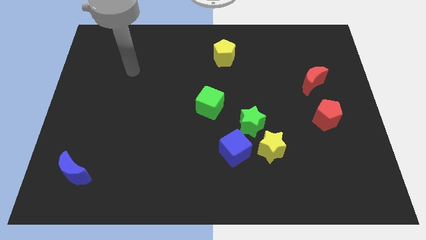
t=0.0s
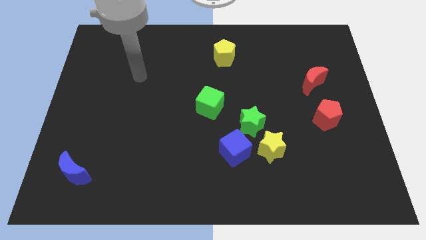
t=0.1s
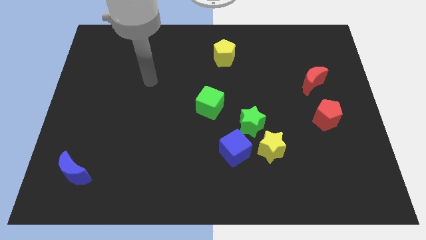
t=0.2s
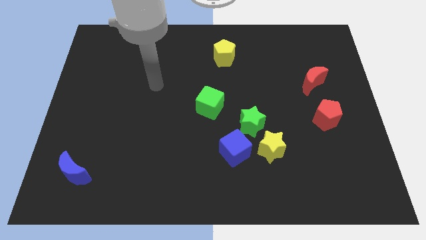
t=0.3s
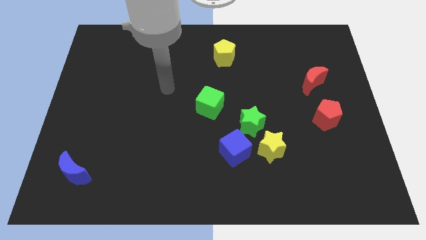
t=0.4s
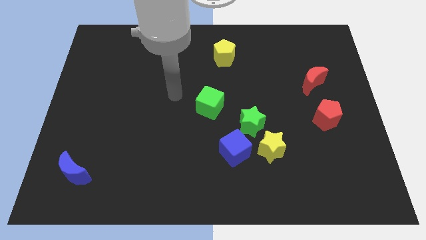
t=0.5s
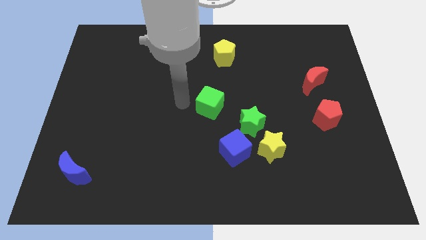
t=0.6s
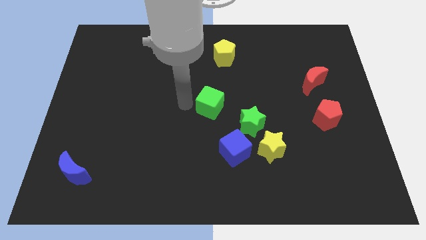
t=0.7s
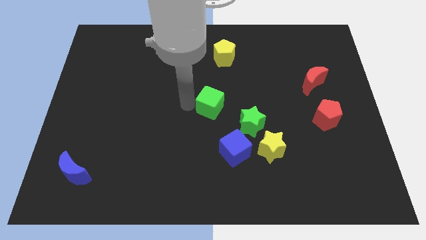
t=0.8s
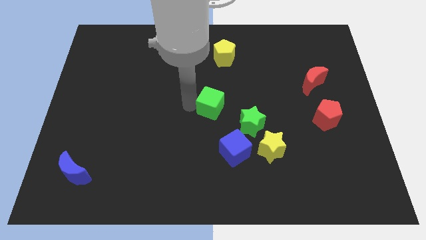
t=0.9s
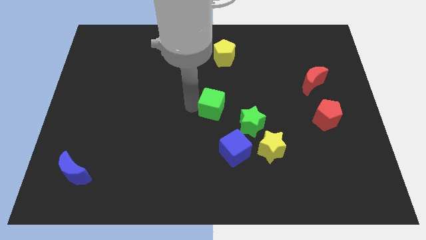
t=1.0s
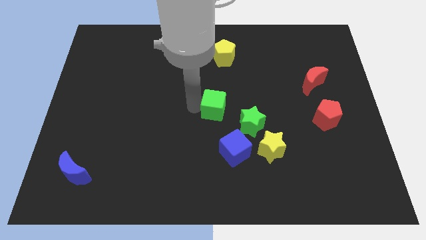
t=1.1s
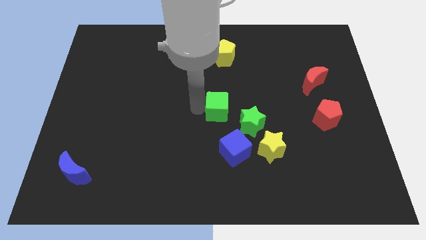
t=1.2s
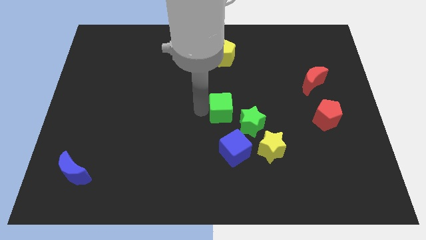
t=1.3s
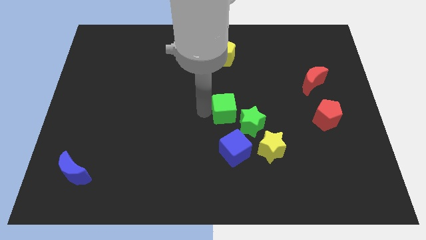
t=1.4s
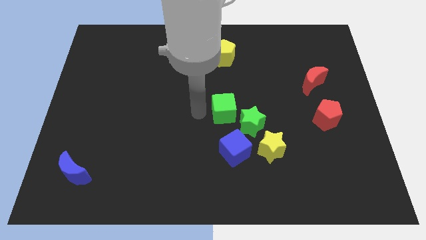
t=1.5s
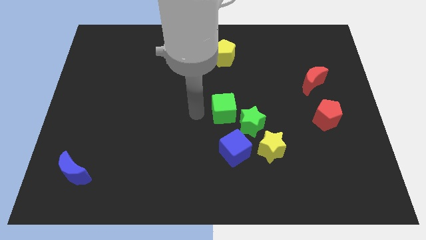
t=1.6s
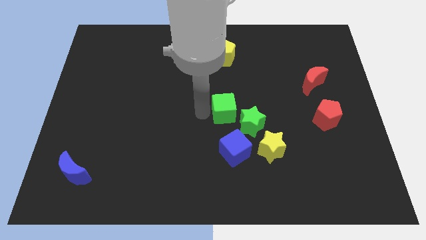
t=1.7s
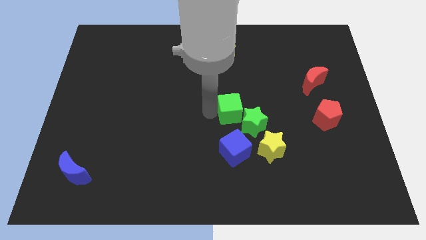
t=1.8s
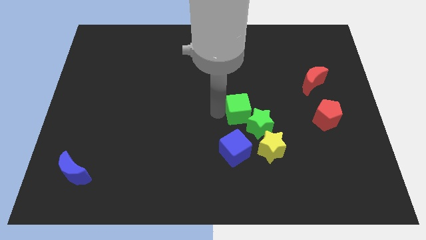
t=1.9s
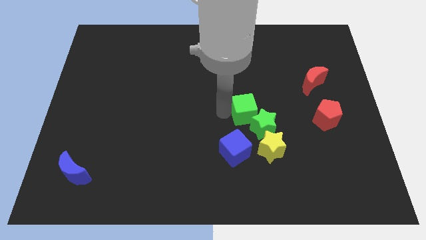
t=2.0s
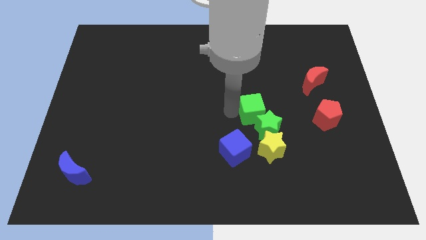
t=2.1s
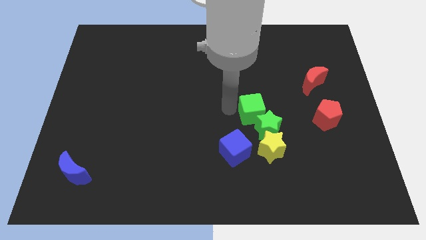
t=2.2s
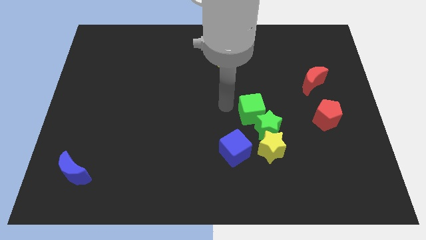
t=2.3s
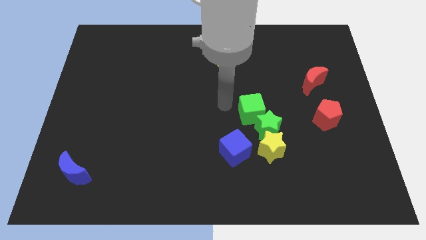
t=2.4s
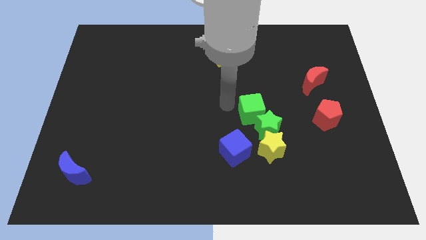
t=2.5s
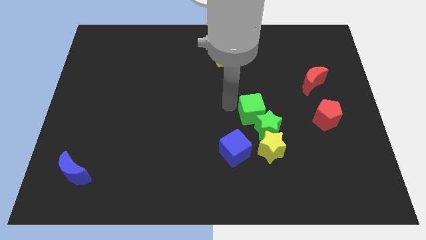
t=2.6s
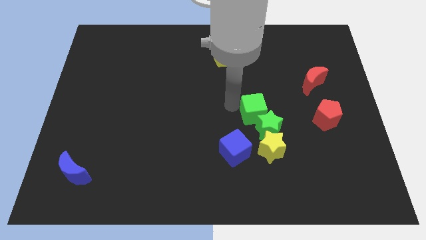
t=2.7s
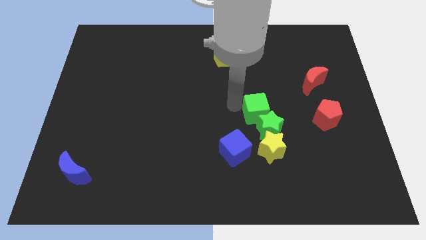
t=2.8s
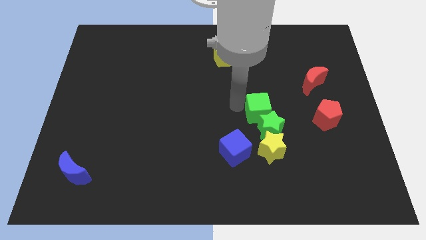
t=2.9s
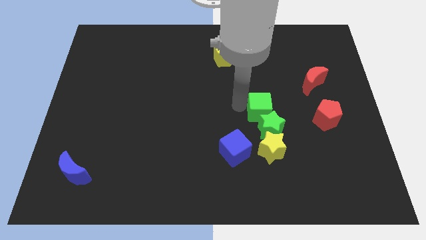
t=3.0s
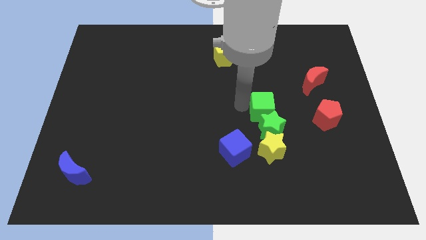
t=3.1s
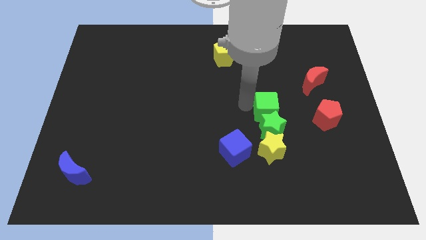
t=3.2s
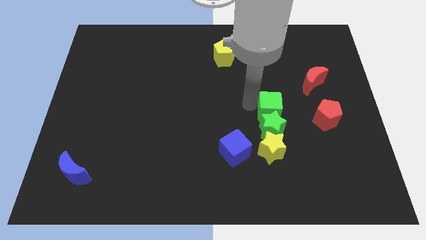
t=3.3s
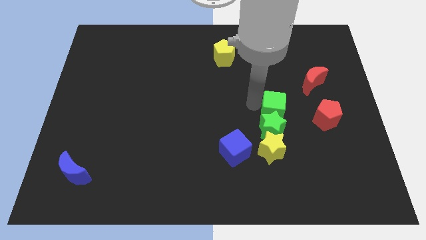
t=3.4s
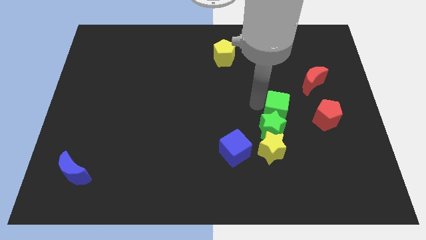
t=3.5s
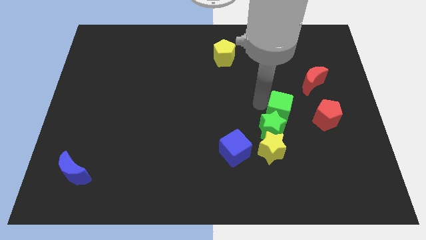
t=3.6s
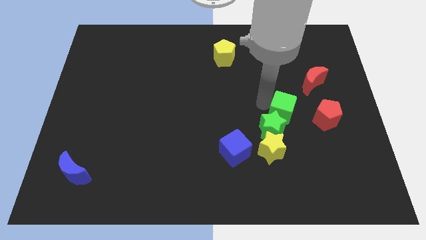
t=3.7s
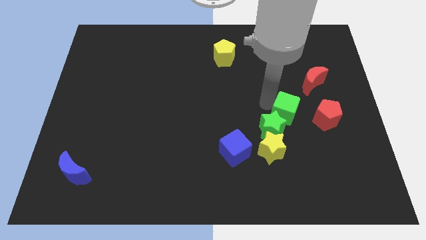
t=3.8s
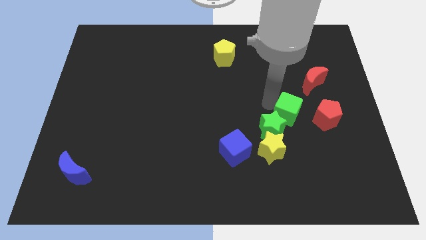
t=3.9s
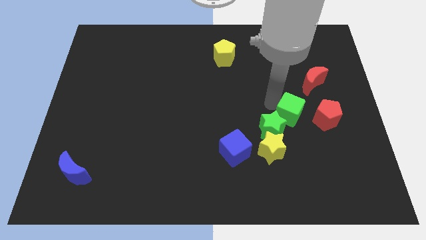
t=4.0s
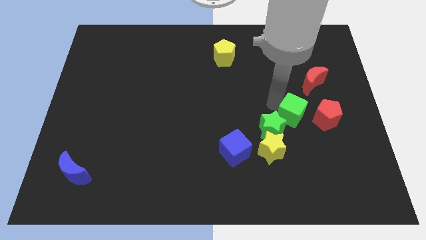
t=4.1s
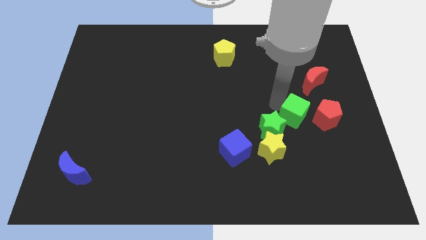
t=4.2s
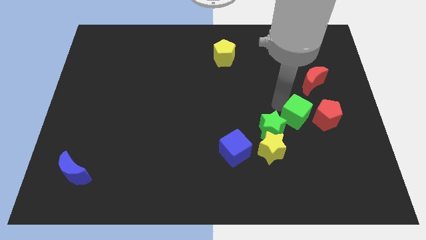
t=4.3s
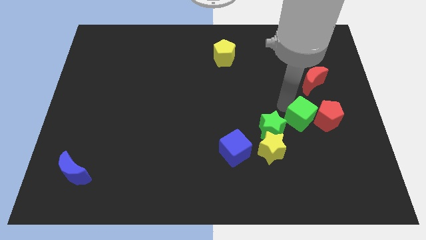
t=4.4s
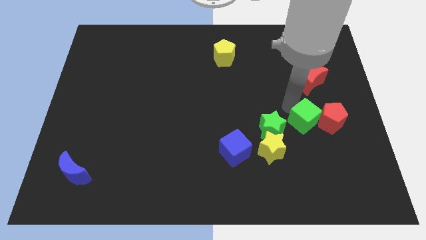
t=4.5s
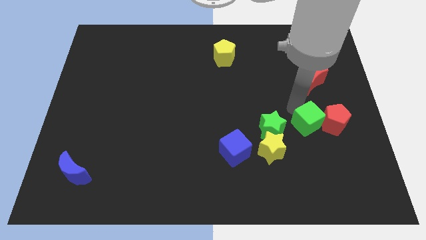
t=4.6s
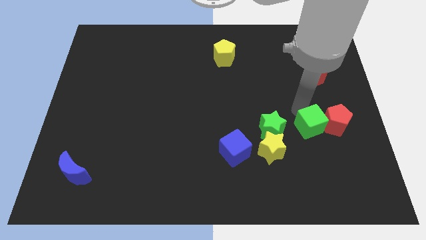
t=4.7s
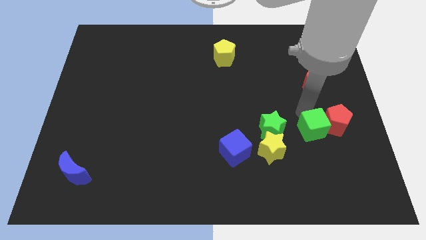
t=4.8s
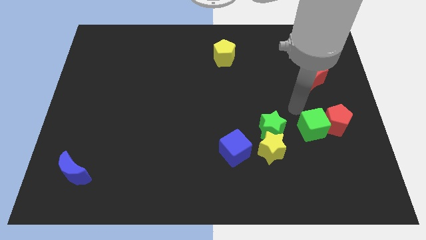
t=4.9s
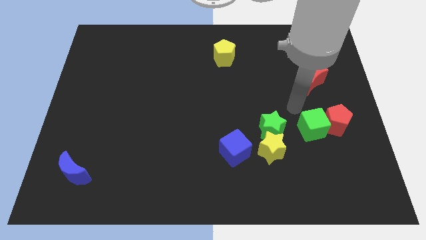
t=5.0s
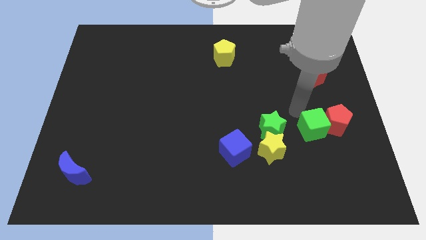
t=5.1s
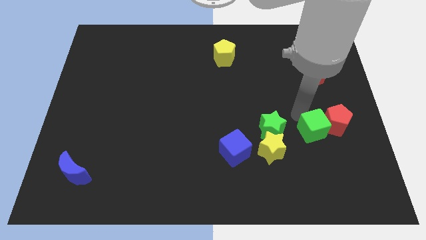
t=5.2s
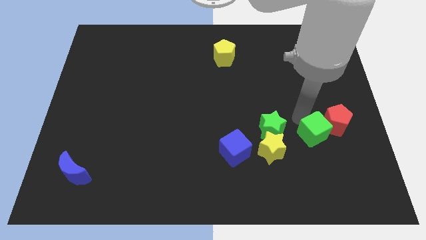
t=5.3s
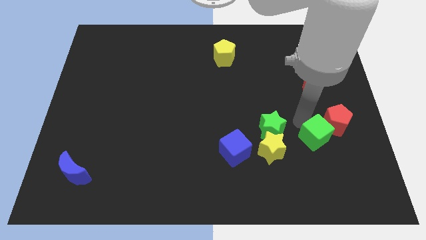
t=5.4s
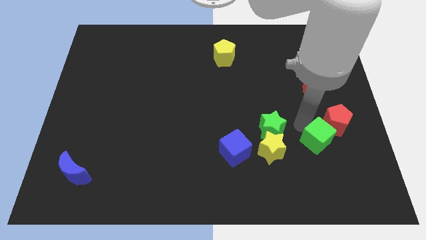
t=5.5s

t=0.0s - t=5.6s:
put the green cube below the red pentagon

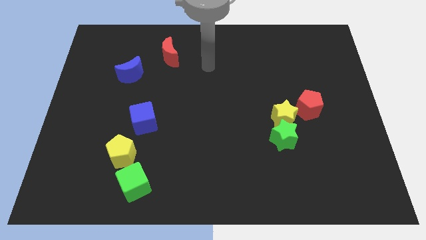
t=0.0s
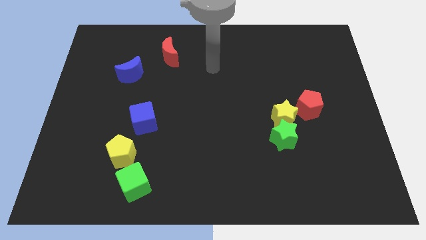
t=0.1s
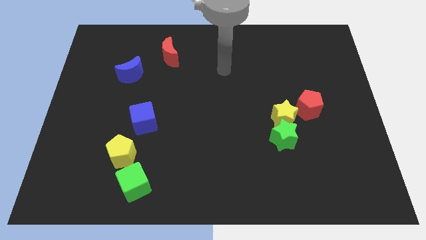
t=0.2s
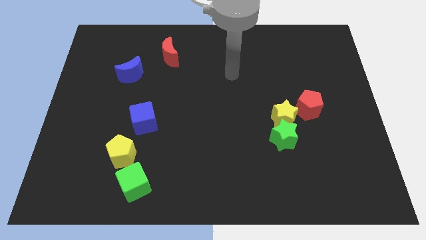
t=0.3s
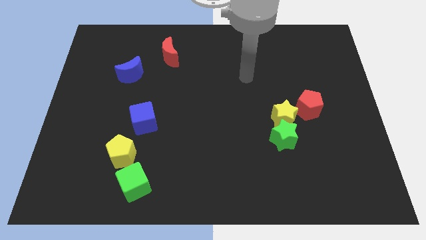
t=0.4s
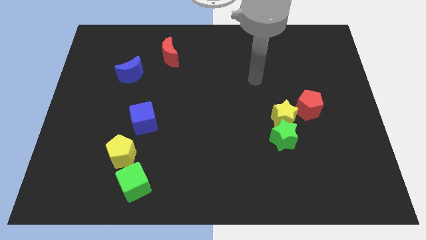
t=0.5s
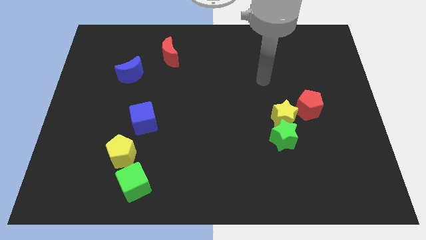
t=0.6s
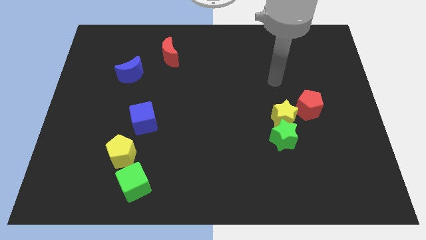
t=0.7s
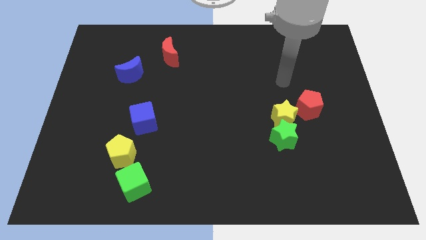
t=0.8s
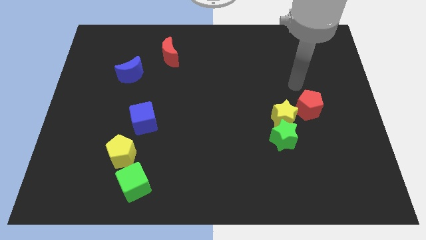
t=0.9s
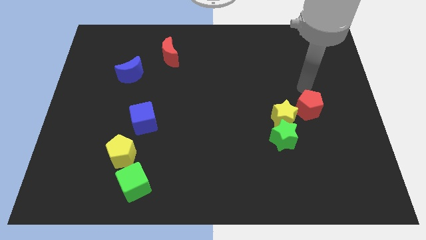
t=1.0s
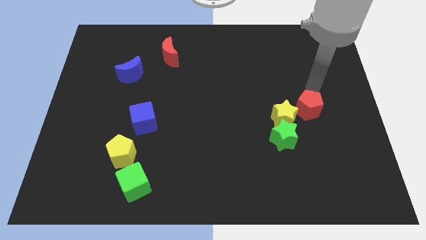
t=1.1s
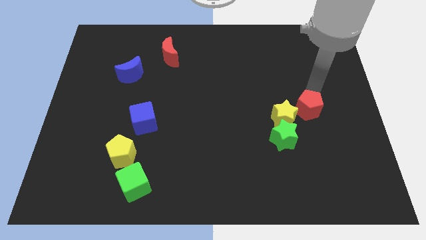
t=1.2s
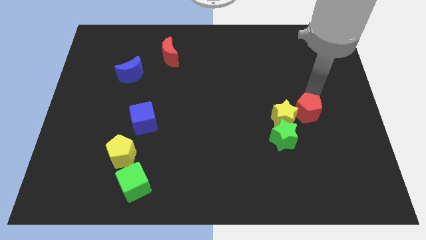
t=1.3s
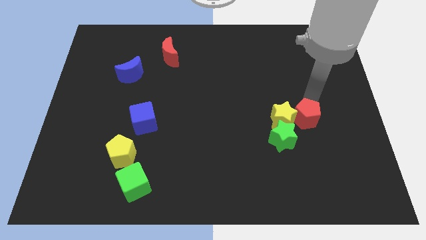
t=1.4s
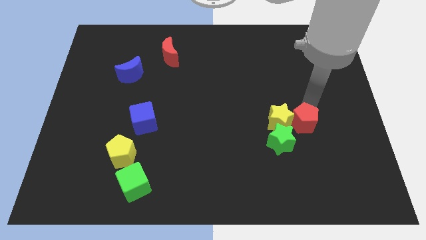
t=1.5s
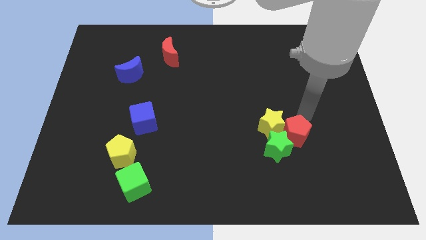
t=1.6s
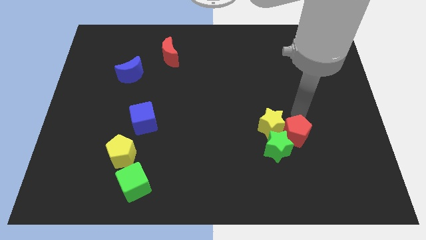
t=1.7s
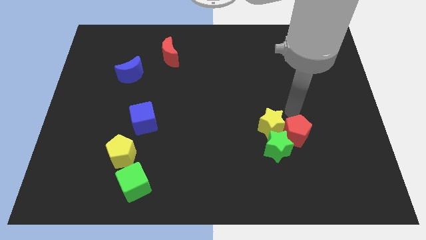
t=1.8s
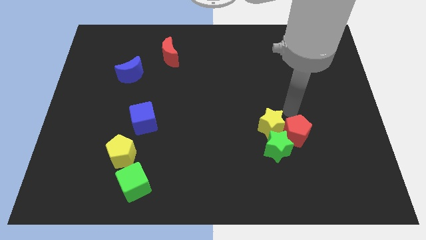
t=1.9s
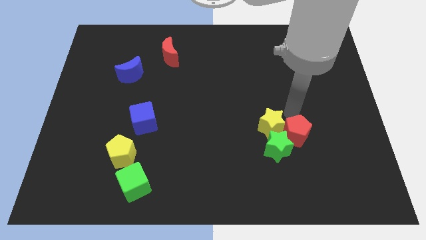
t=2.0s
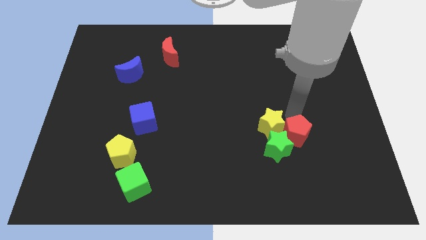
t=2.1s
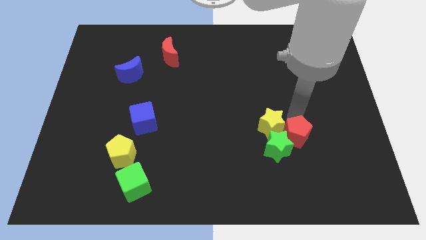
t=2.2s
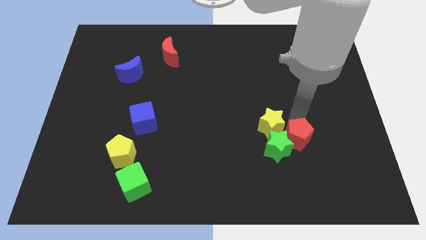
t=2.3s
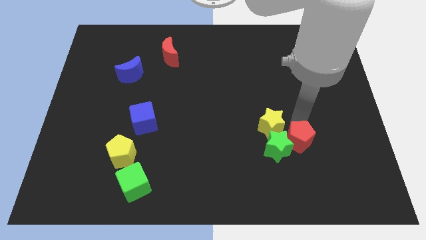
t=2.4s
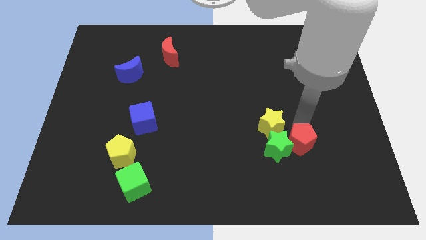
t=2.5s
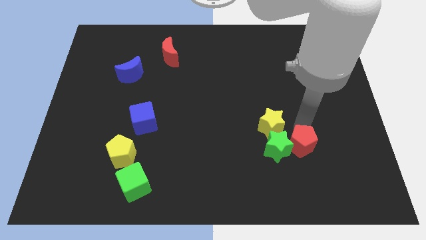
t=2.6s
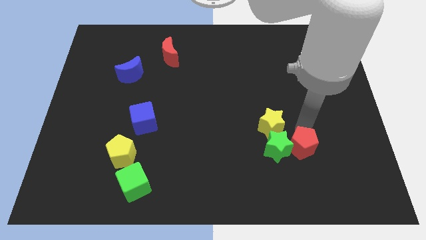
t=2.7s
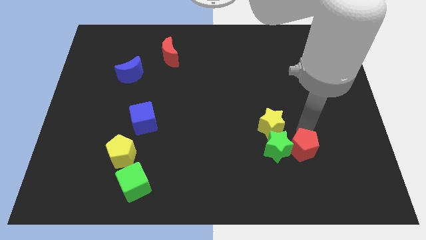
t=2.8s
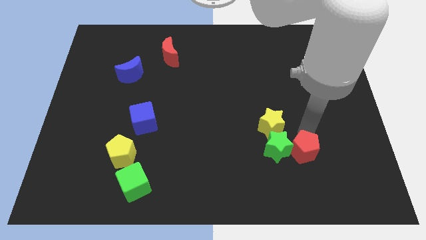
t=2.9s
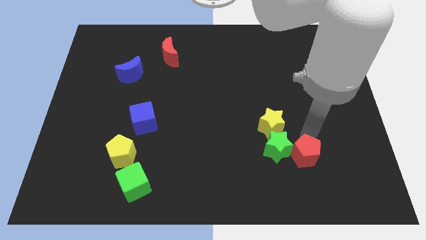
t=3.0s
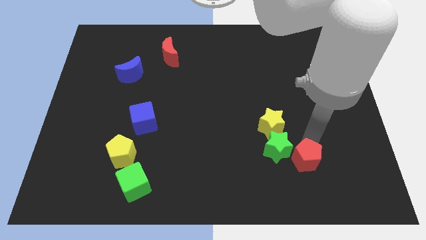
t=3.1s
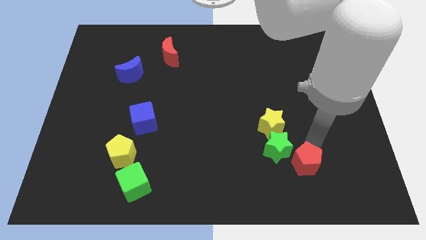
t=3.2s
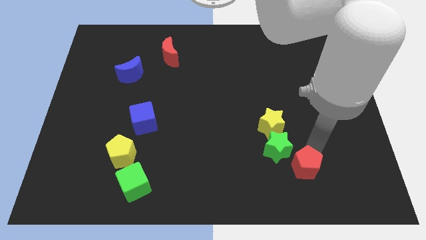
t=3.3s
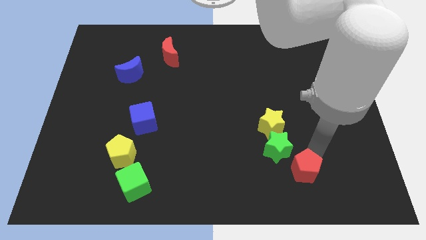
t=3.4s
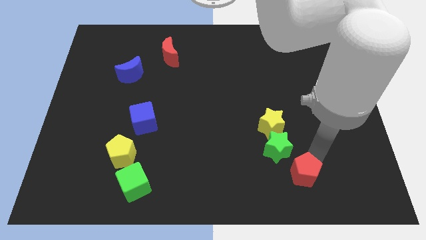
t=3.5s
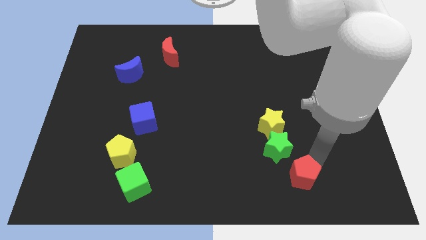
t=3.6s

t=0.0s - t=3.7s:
push the red pentagon below the green star
